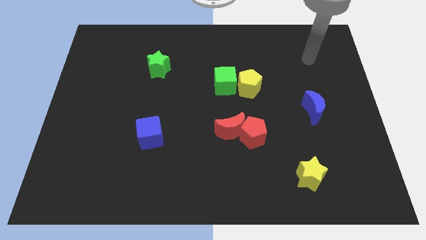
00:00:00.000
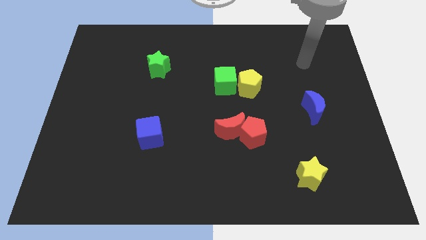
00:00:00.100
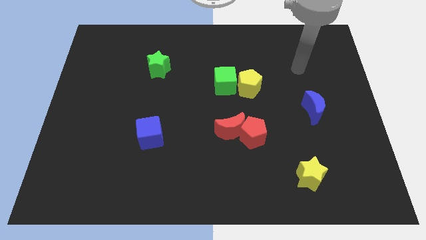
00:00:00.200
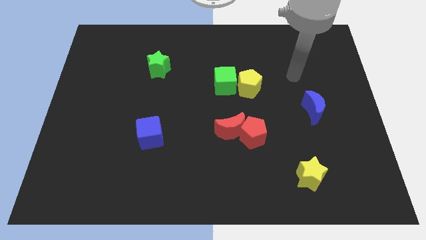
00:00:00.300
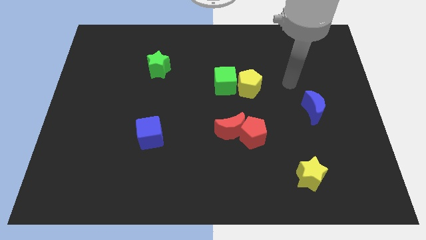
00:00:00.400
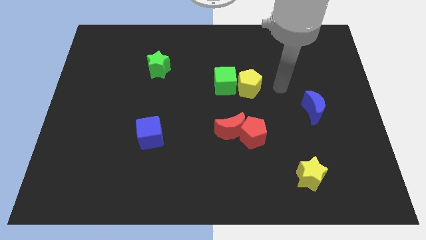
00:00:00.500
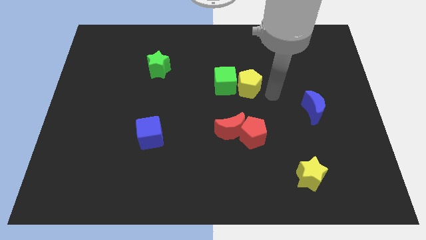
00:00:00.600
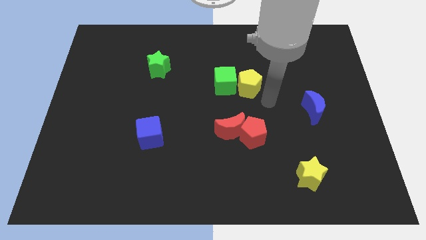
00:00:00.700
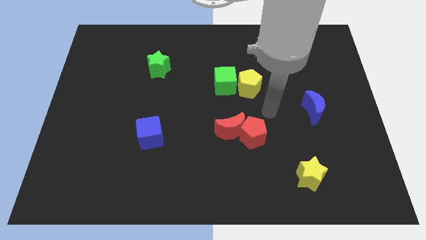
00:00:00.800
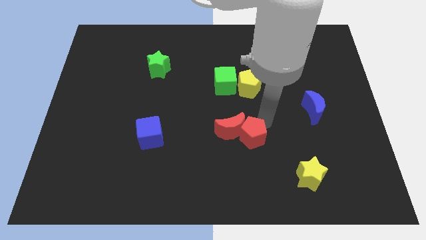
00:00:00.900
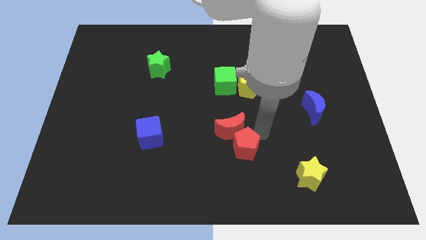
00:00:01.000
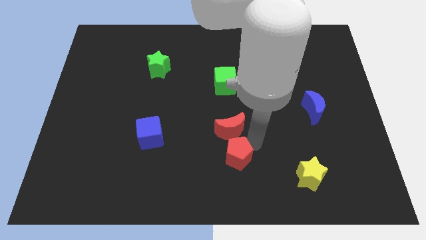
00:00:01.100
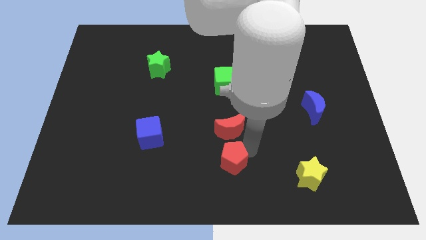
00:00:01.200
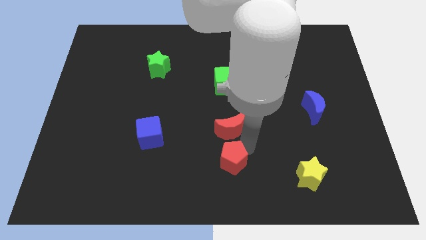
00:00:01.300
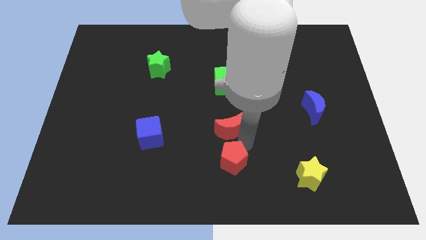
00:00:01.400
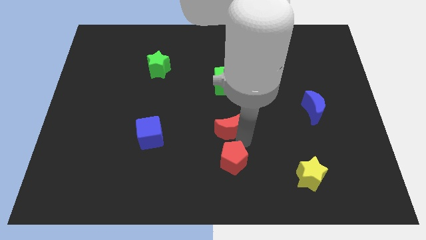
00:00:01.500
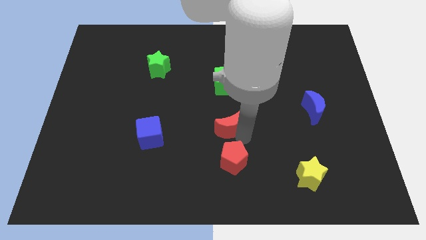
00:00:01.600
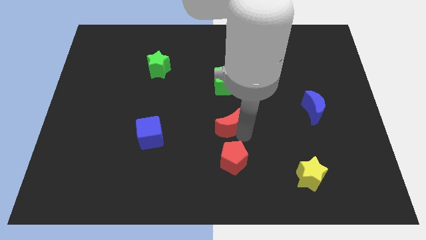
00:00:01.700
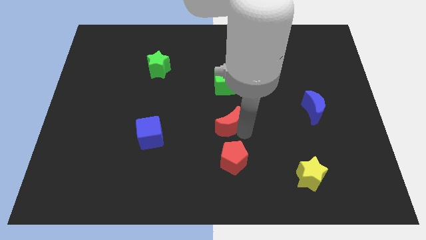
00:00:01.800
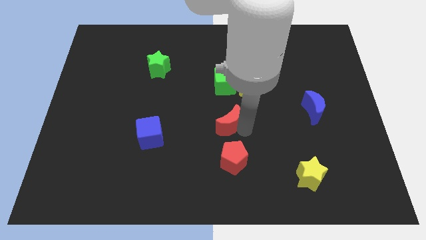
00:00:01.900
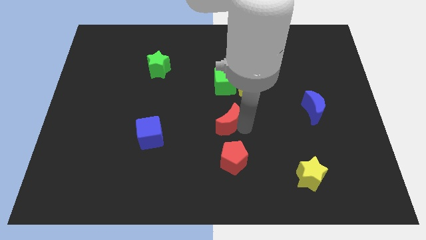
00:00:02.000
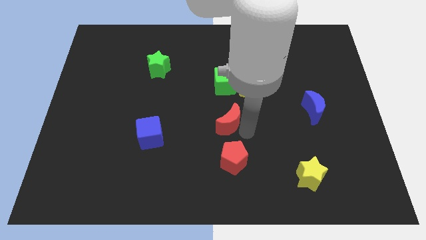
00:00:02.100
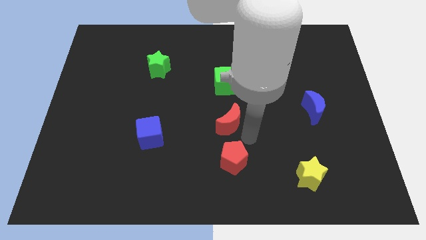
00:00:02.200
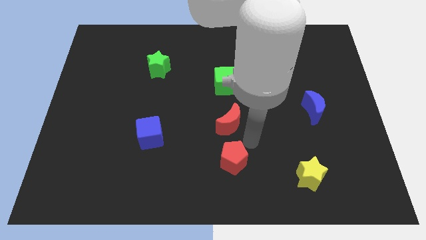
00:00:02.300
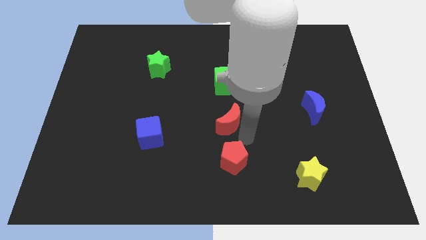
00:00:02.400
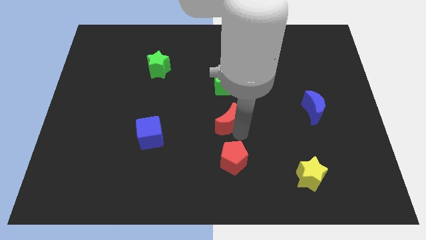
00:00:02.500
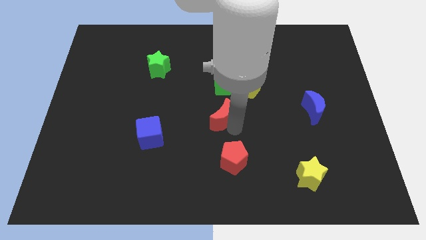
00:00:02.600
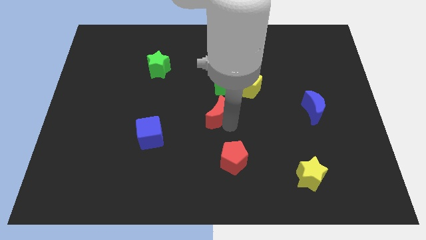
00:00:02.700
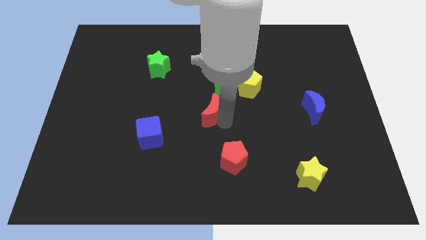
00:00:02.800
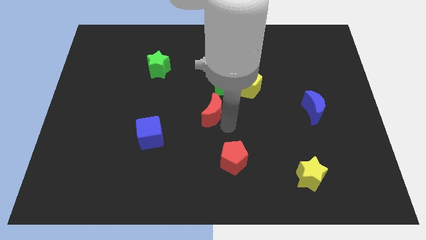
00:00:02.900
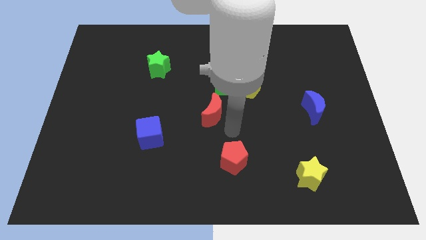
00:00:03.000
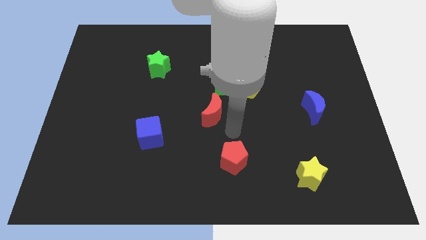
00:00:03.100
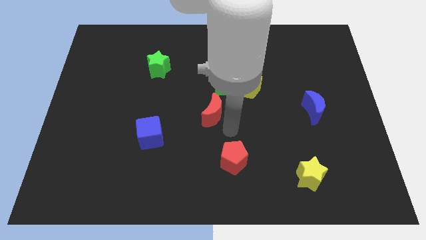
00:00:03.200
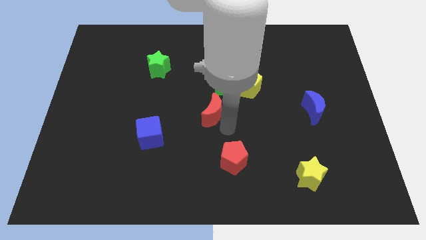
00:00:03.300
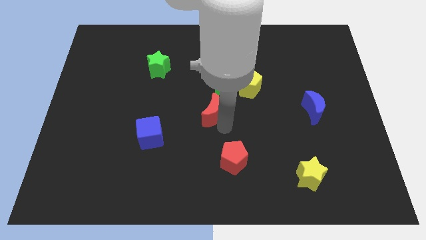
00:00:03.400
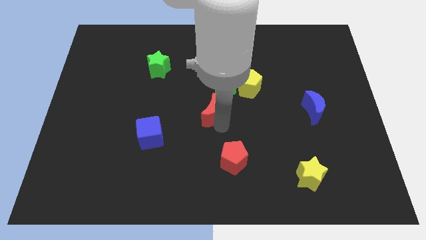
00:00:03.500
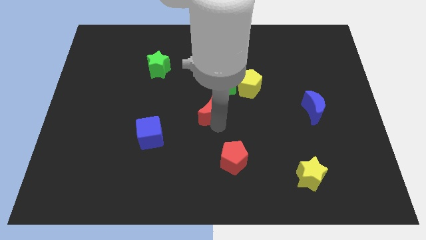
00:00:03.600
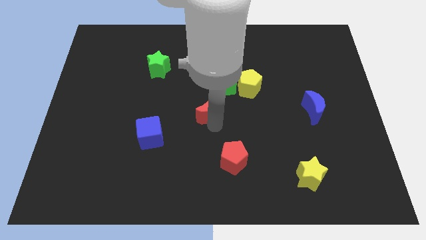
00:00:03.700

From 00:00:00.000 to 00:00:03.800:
move the red moon diagonally upwards and to the left slightly

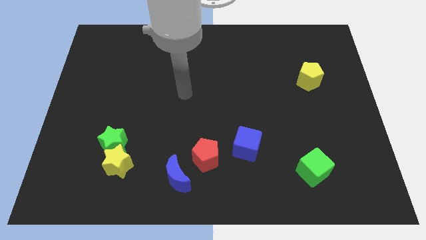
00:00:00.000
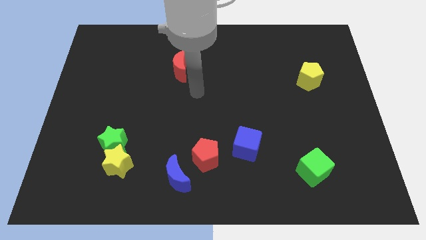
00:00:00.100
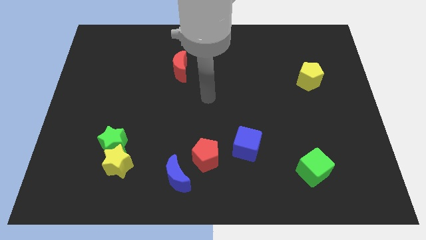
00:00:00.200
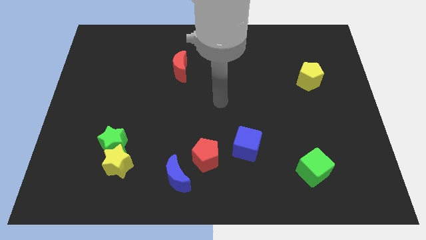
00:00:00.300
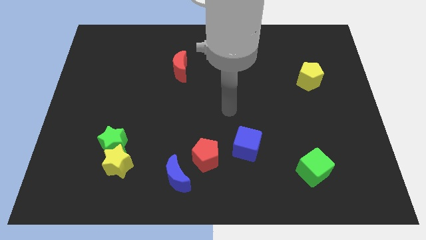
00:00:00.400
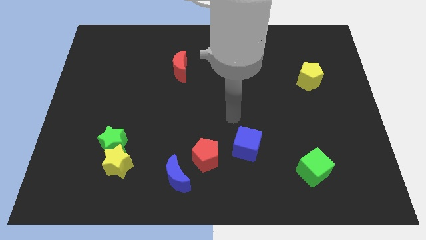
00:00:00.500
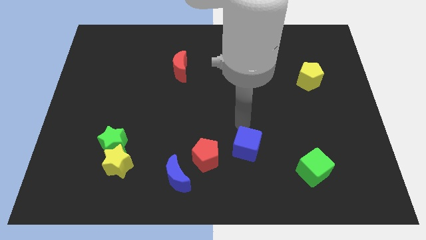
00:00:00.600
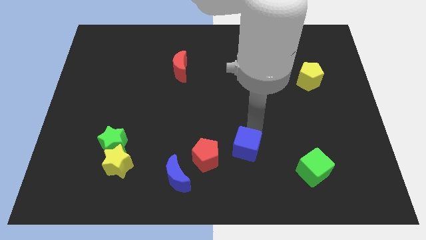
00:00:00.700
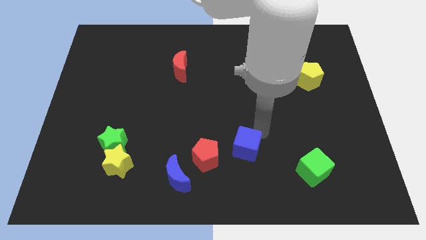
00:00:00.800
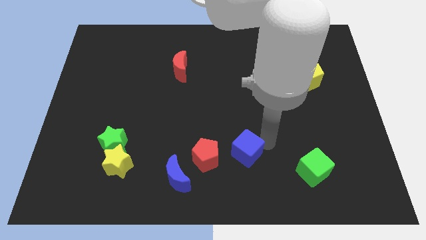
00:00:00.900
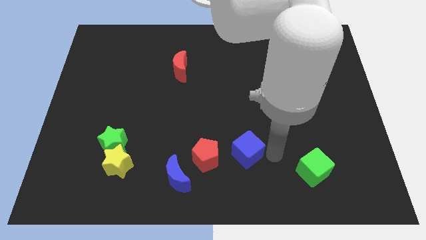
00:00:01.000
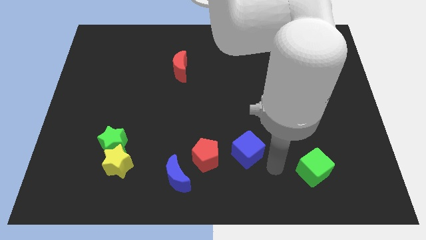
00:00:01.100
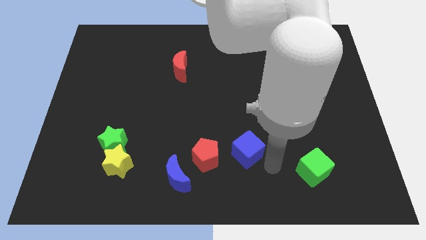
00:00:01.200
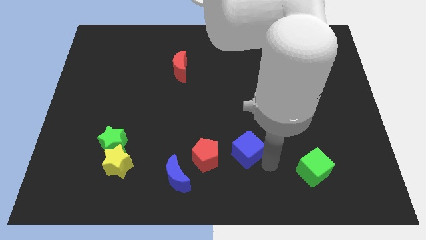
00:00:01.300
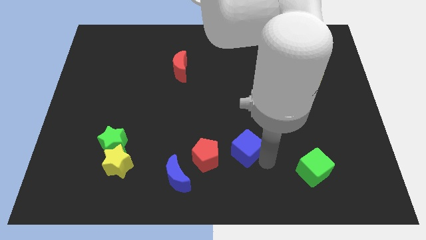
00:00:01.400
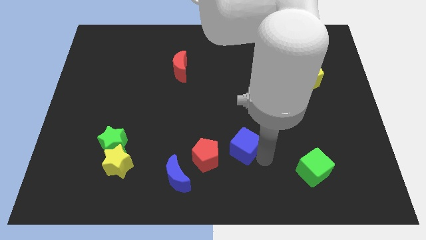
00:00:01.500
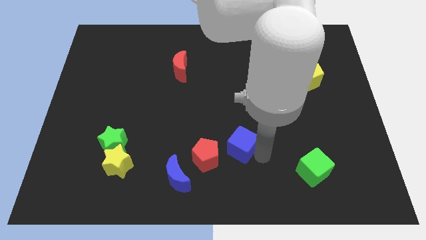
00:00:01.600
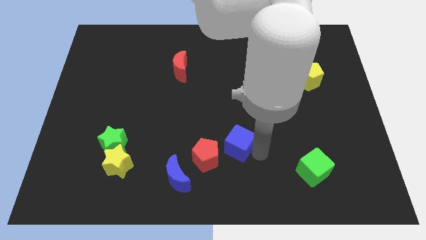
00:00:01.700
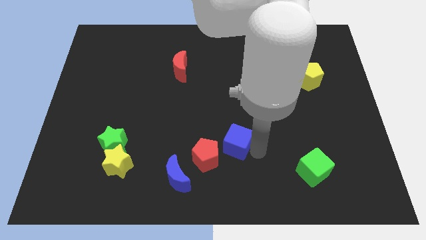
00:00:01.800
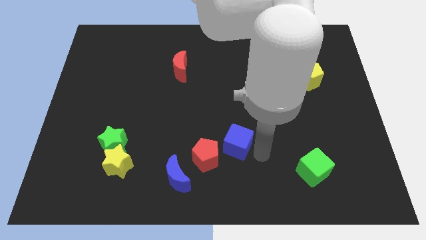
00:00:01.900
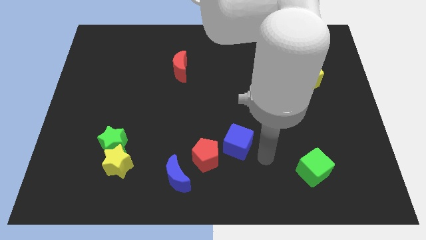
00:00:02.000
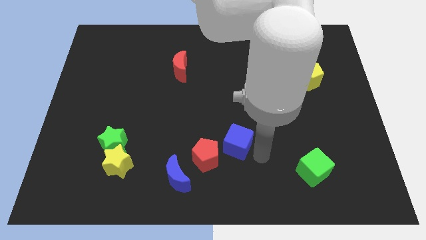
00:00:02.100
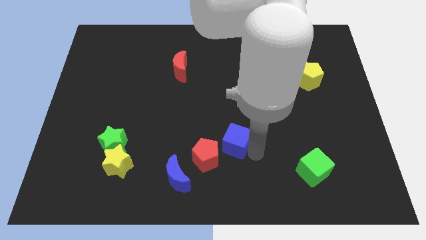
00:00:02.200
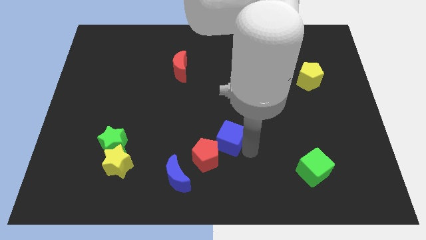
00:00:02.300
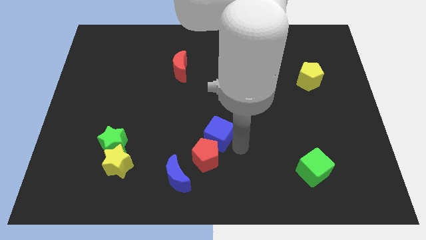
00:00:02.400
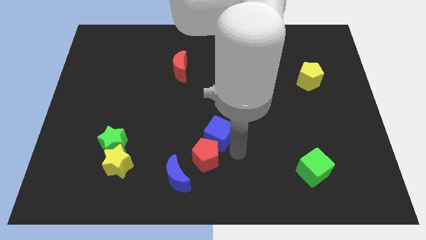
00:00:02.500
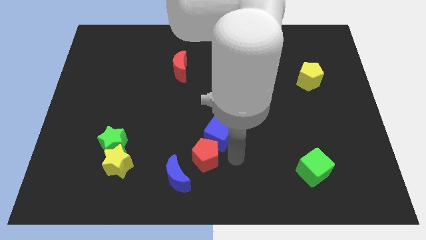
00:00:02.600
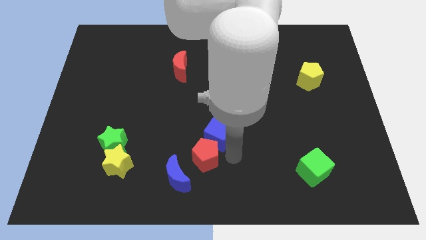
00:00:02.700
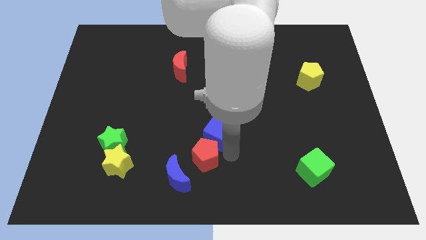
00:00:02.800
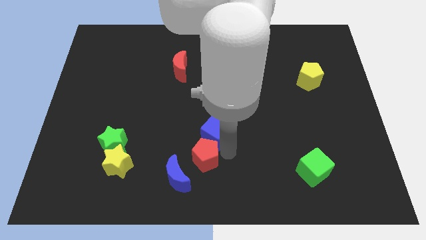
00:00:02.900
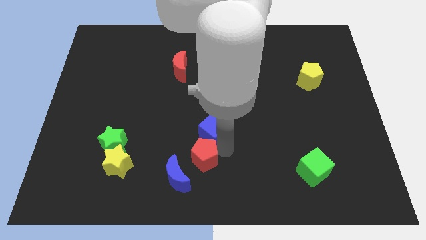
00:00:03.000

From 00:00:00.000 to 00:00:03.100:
push the blue cube upwards and then to the left a bit

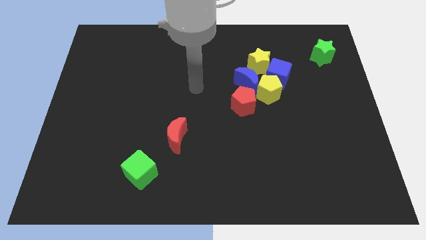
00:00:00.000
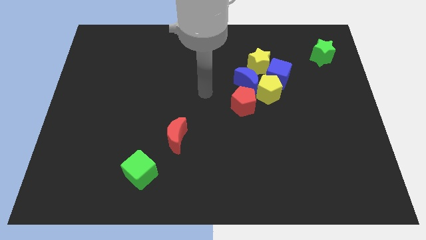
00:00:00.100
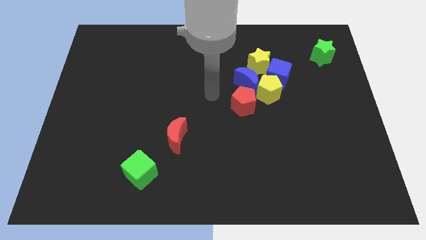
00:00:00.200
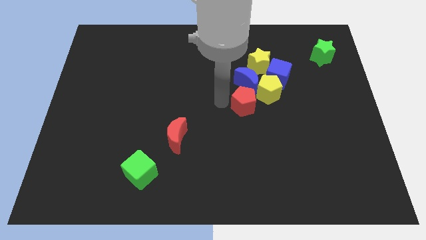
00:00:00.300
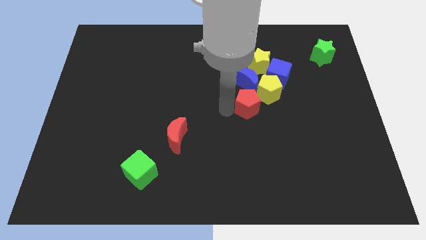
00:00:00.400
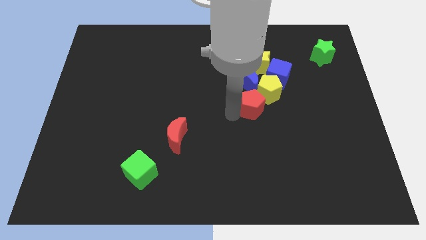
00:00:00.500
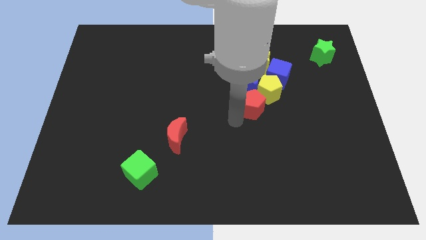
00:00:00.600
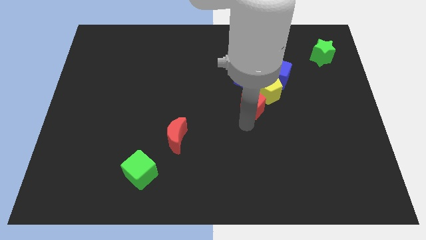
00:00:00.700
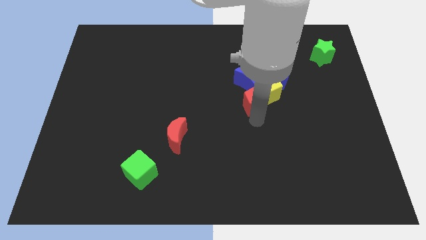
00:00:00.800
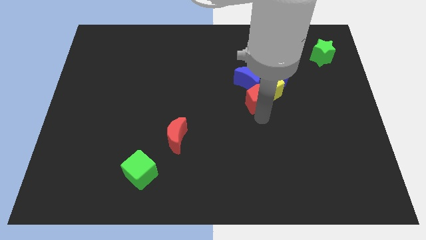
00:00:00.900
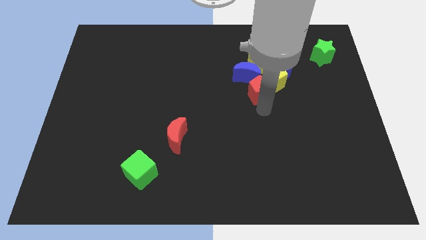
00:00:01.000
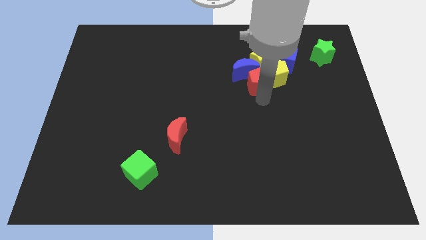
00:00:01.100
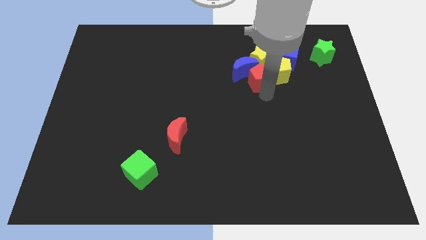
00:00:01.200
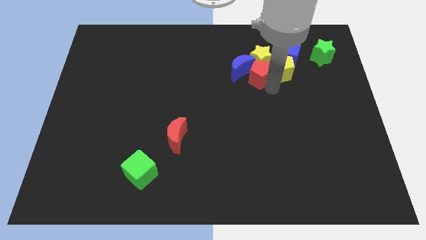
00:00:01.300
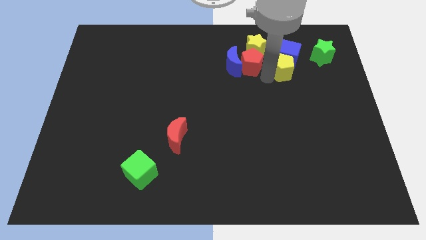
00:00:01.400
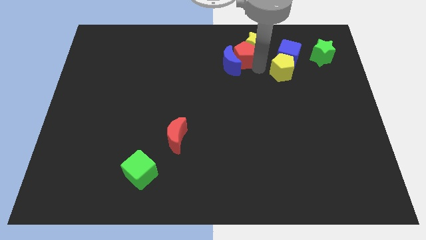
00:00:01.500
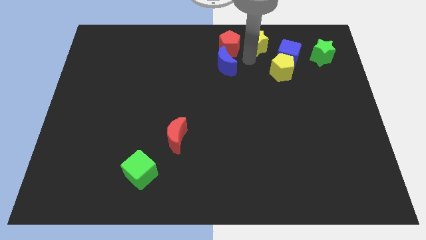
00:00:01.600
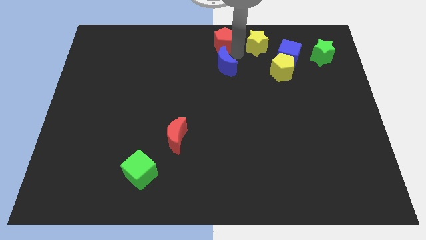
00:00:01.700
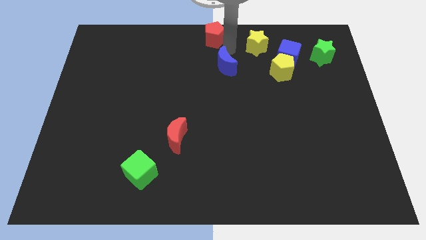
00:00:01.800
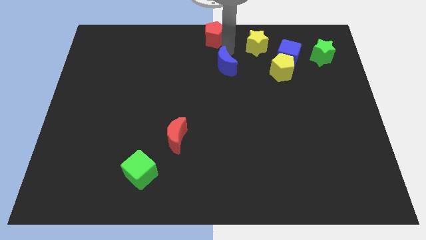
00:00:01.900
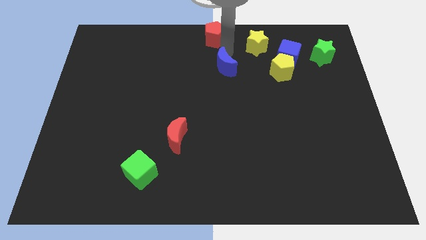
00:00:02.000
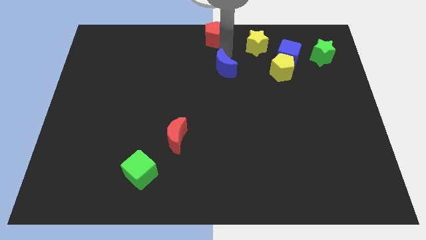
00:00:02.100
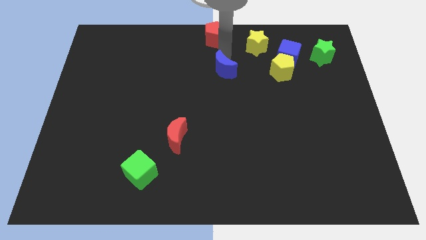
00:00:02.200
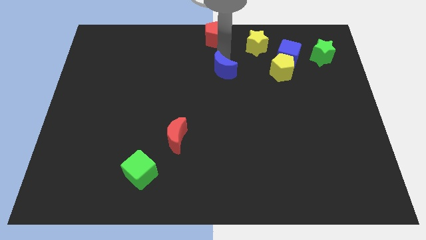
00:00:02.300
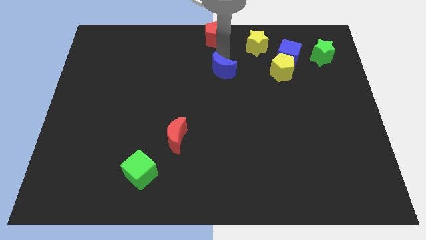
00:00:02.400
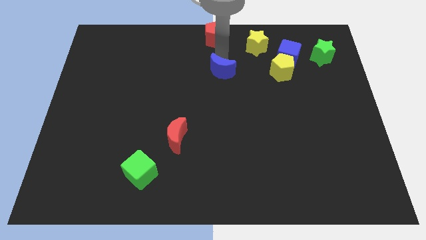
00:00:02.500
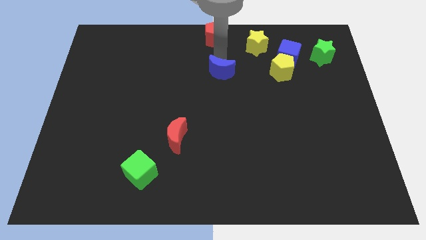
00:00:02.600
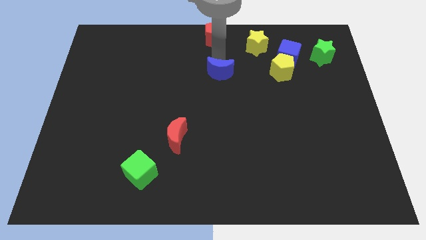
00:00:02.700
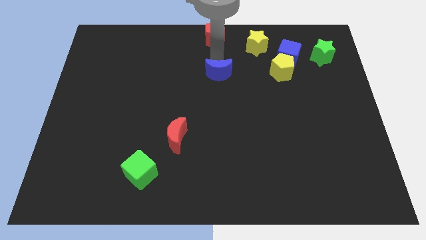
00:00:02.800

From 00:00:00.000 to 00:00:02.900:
slide the blue moon a little bit to the left
